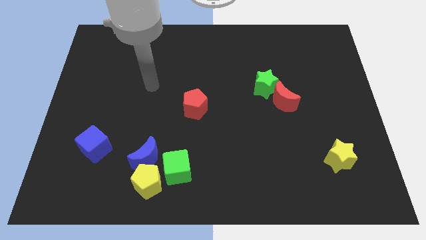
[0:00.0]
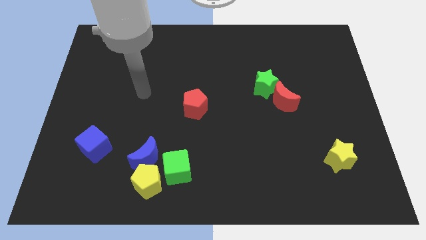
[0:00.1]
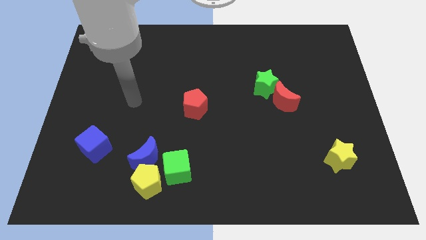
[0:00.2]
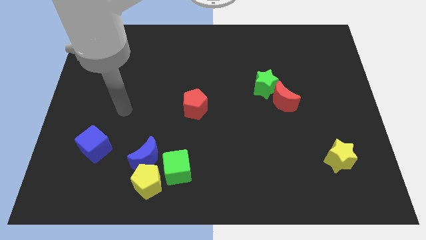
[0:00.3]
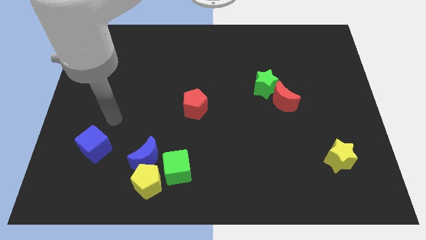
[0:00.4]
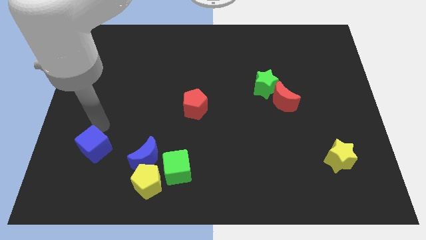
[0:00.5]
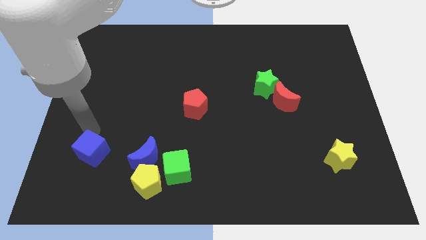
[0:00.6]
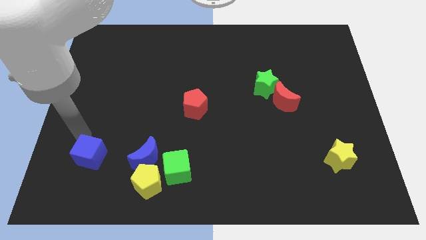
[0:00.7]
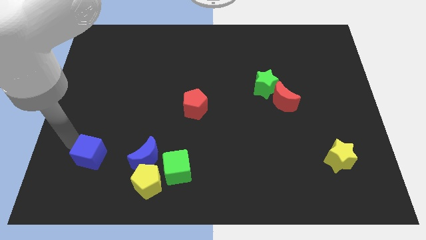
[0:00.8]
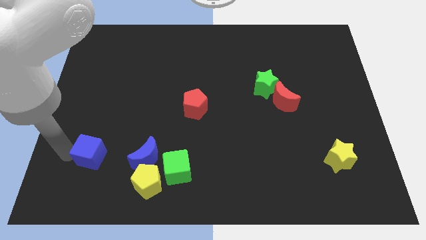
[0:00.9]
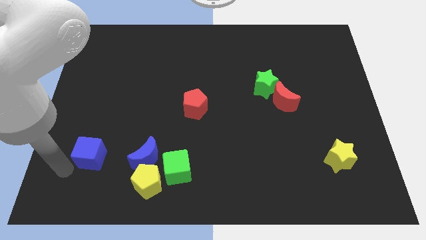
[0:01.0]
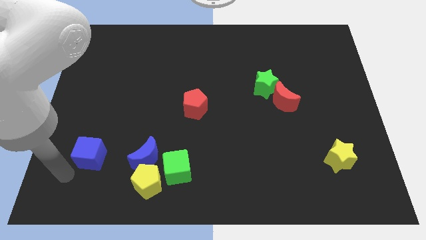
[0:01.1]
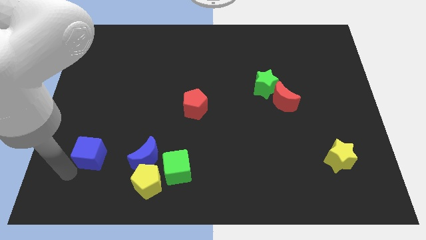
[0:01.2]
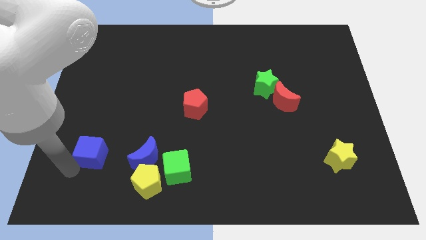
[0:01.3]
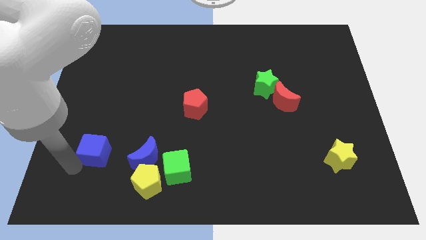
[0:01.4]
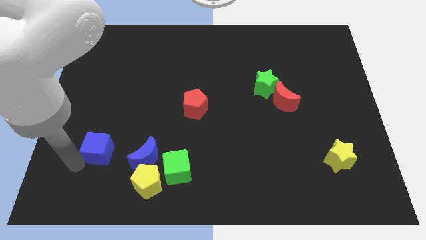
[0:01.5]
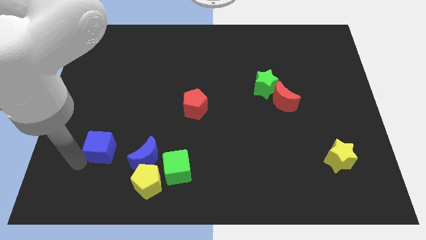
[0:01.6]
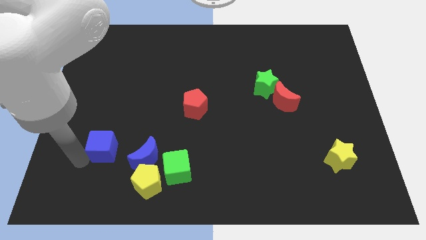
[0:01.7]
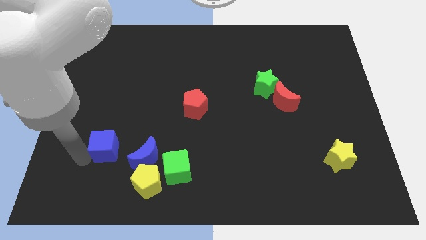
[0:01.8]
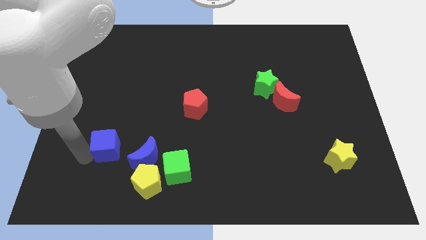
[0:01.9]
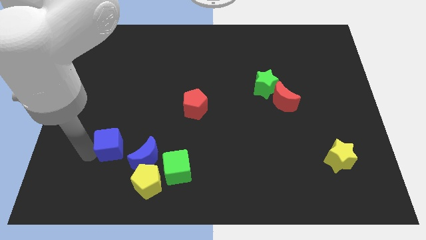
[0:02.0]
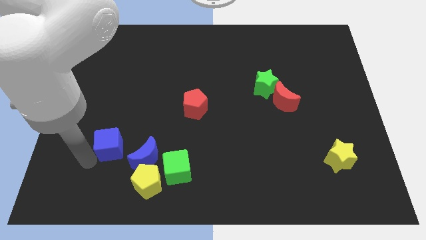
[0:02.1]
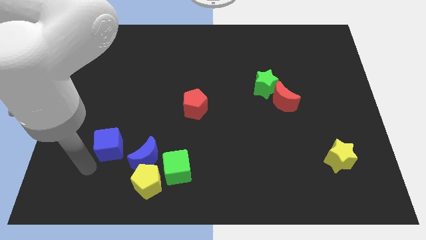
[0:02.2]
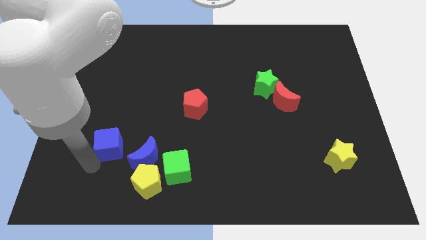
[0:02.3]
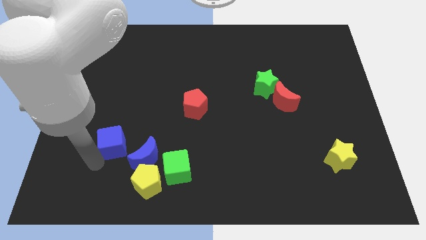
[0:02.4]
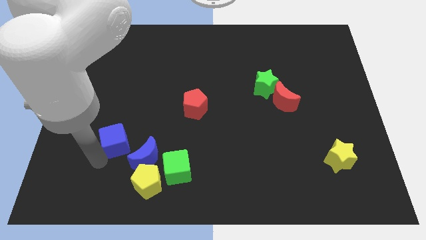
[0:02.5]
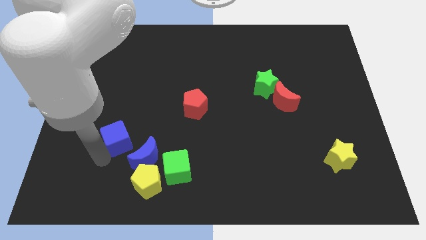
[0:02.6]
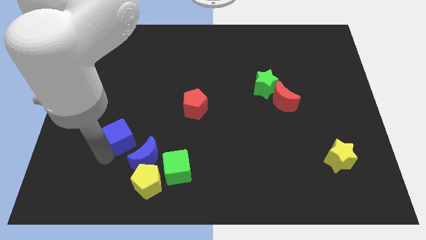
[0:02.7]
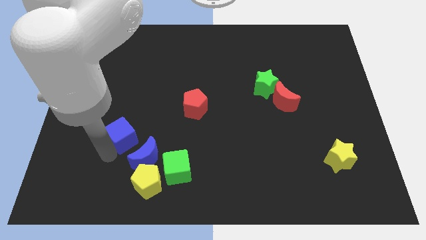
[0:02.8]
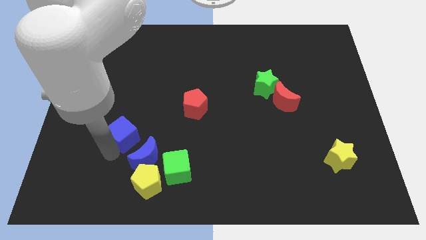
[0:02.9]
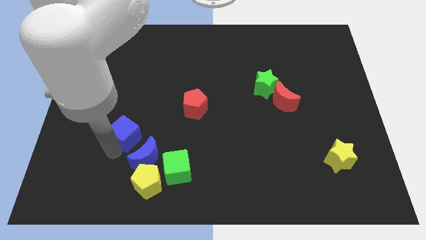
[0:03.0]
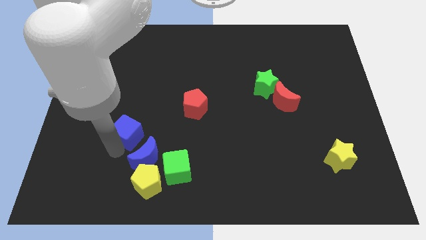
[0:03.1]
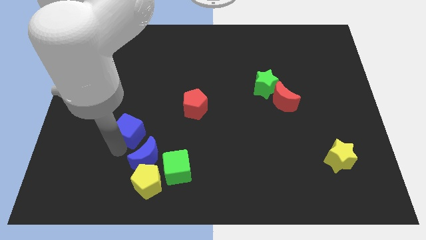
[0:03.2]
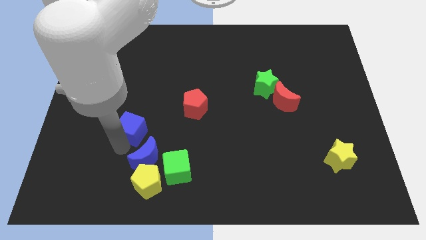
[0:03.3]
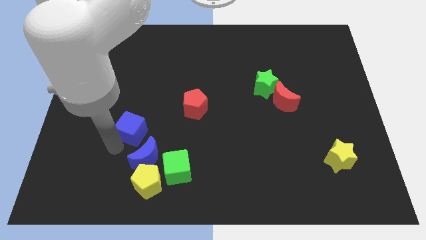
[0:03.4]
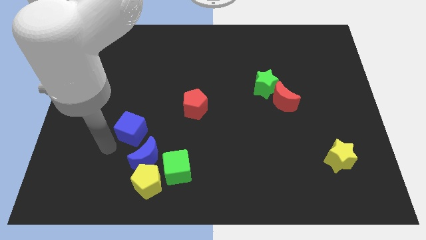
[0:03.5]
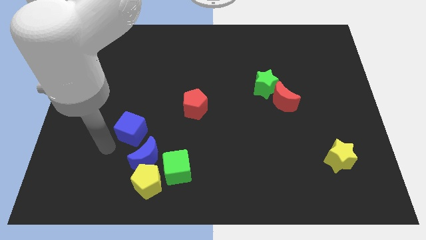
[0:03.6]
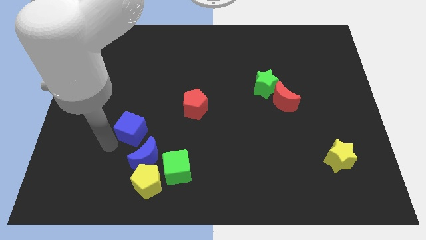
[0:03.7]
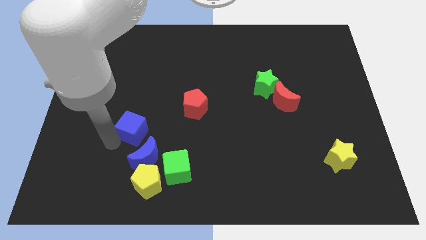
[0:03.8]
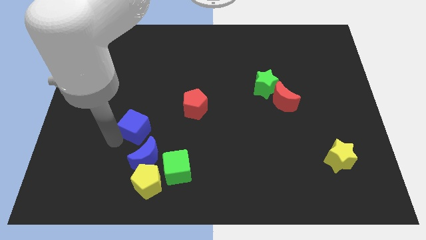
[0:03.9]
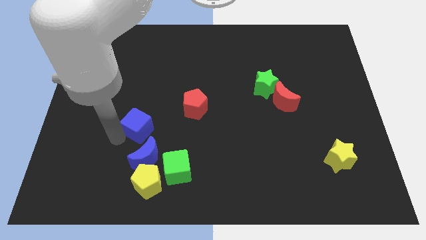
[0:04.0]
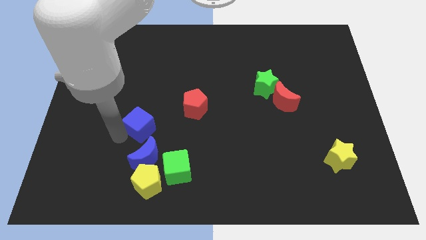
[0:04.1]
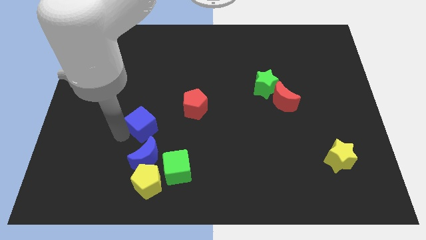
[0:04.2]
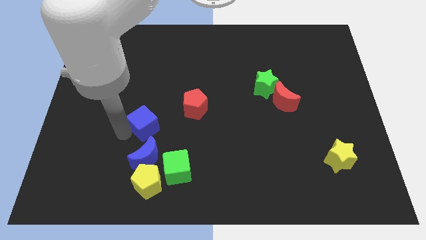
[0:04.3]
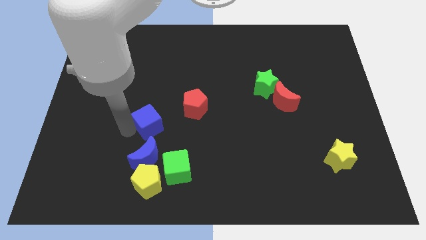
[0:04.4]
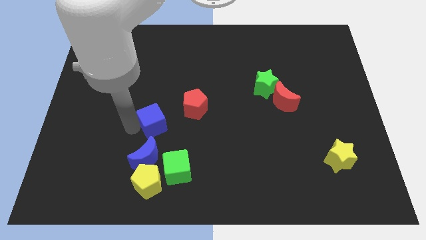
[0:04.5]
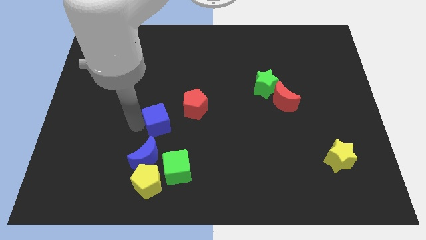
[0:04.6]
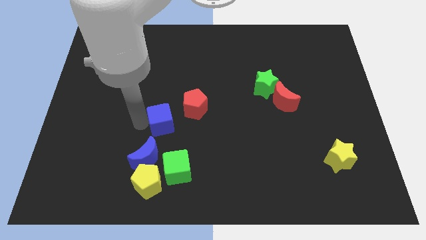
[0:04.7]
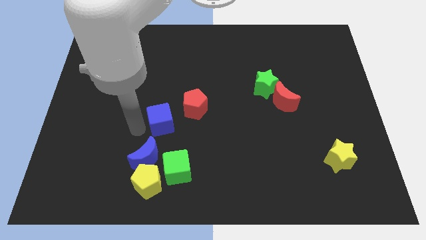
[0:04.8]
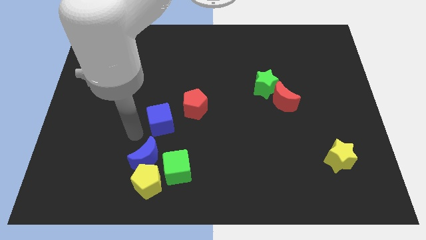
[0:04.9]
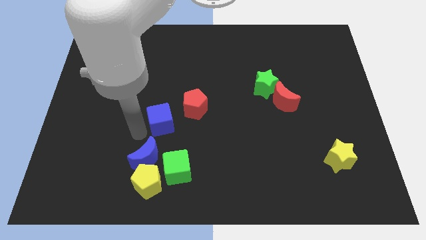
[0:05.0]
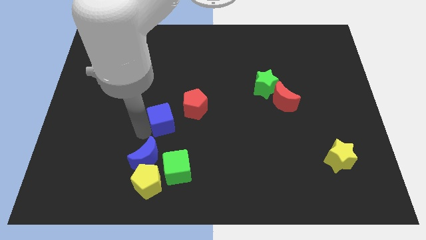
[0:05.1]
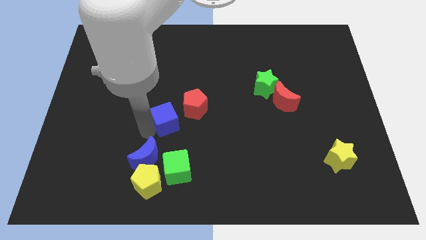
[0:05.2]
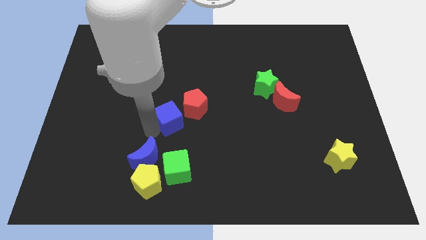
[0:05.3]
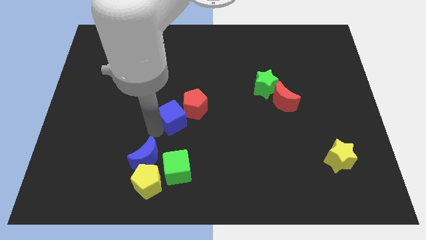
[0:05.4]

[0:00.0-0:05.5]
move the blue cube to the red pentagon

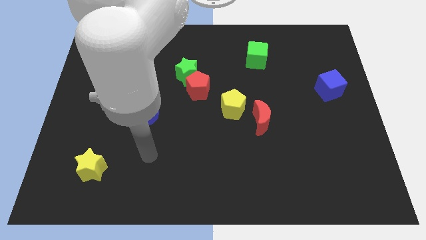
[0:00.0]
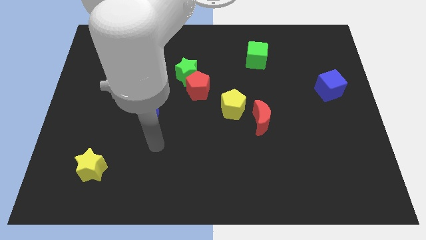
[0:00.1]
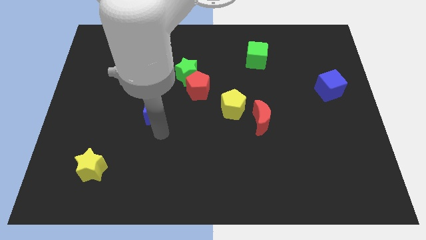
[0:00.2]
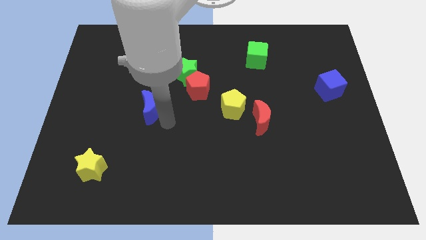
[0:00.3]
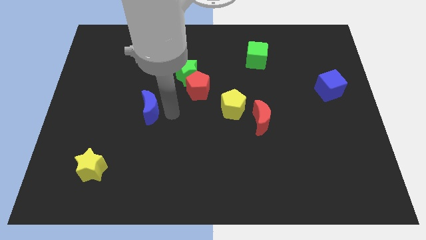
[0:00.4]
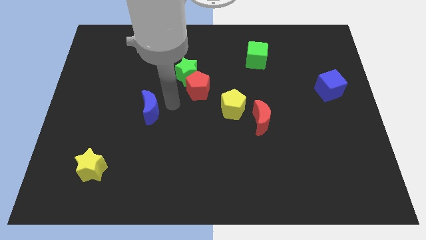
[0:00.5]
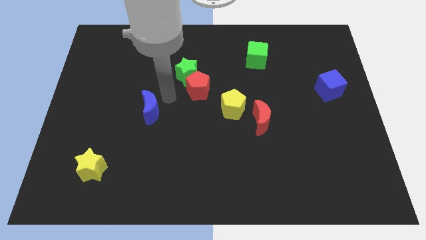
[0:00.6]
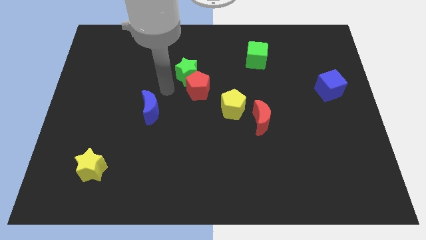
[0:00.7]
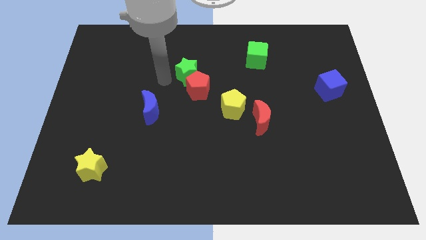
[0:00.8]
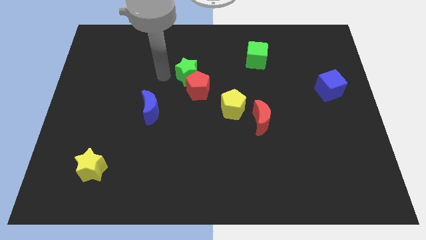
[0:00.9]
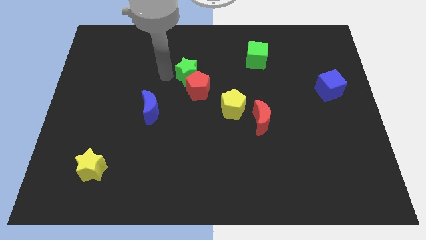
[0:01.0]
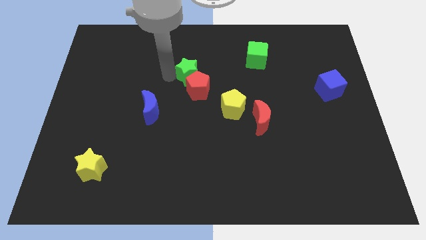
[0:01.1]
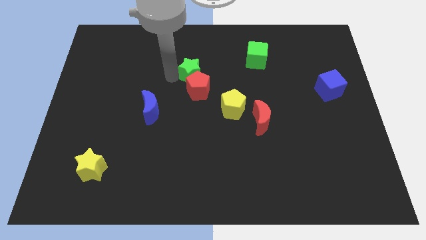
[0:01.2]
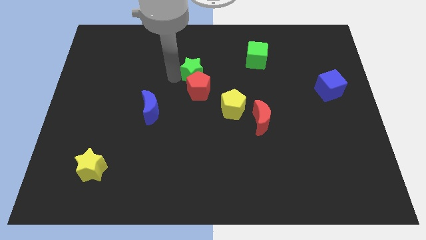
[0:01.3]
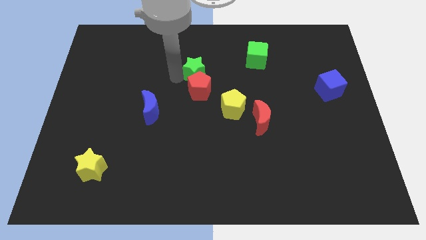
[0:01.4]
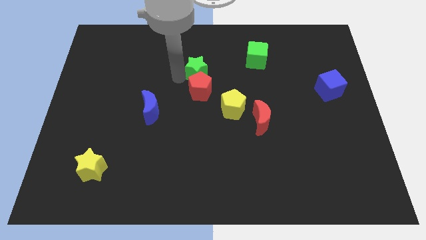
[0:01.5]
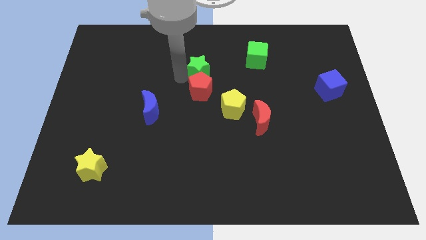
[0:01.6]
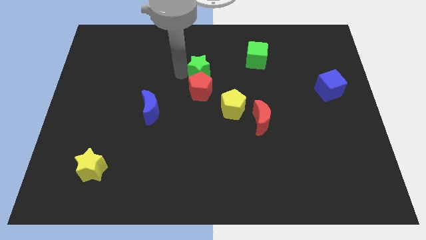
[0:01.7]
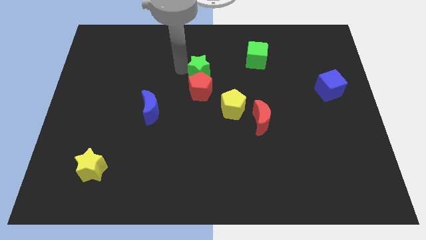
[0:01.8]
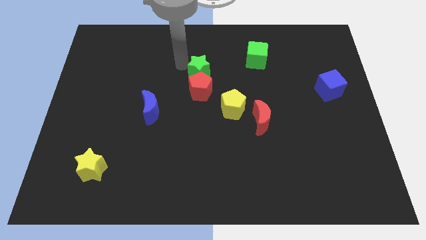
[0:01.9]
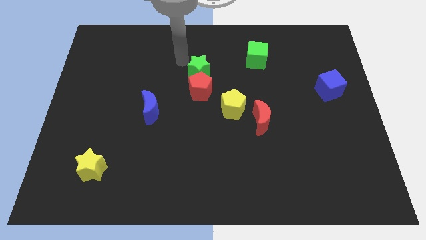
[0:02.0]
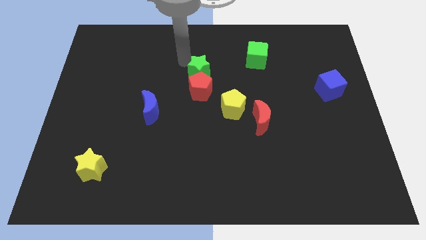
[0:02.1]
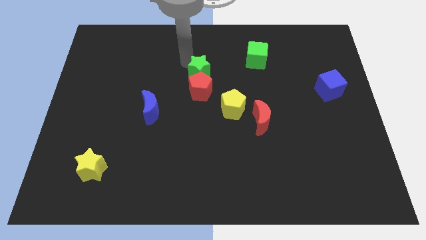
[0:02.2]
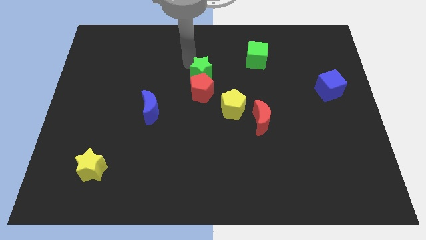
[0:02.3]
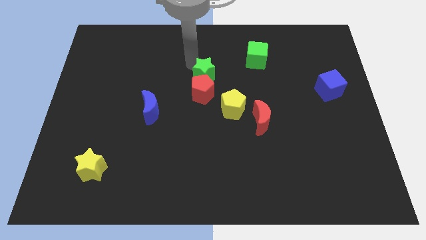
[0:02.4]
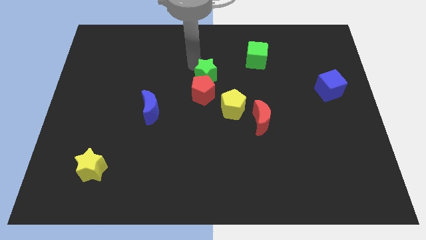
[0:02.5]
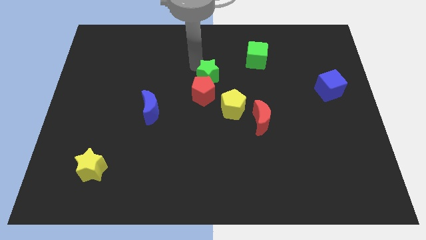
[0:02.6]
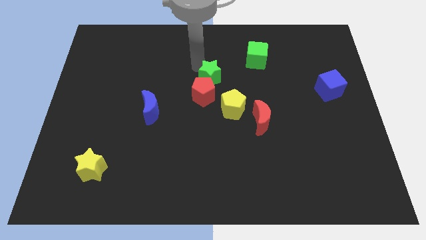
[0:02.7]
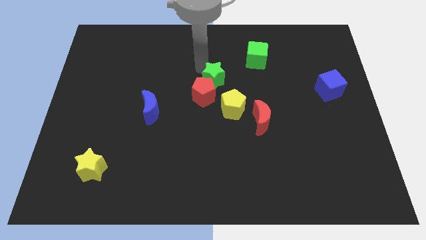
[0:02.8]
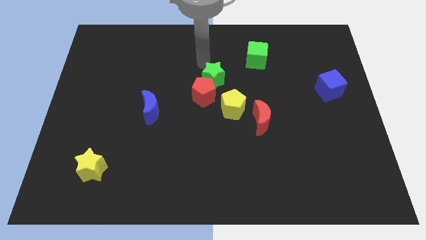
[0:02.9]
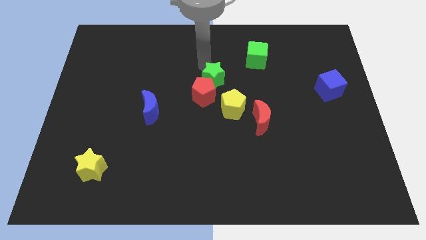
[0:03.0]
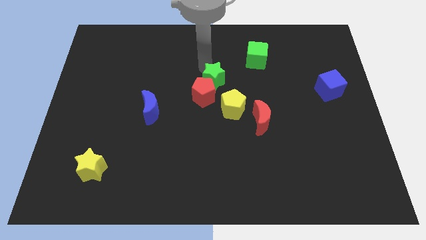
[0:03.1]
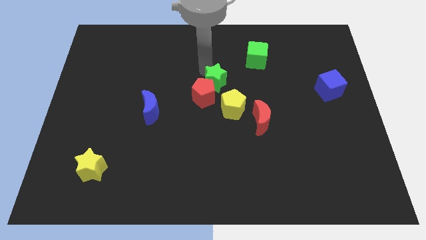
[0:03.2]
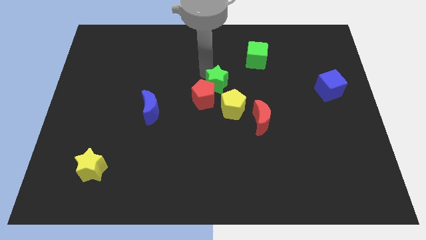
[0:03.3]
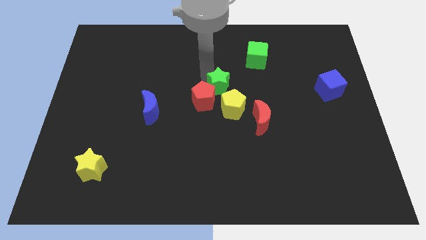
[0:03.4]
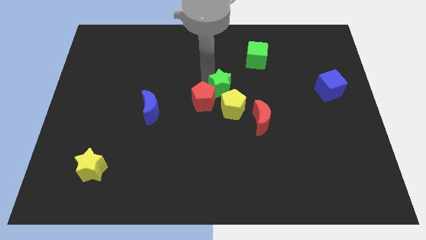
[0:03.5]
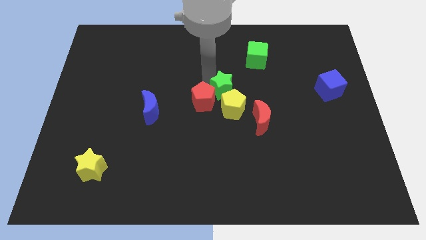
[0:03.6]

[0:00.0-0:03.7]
push the green star towards the yellow pentagon
